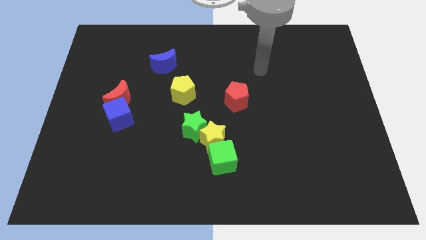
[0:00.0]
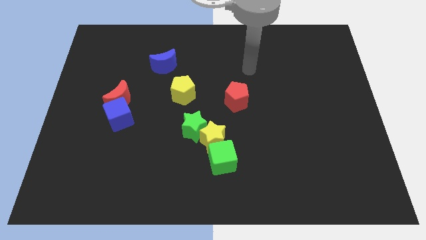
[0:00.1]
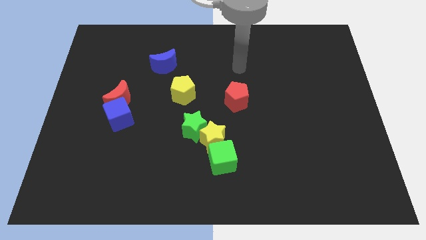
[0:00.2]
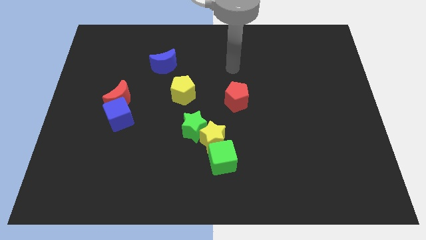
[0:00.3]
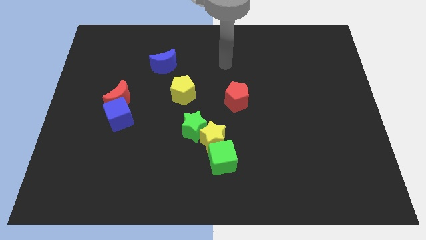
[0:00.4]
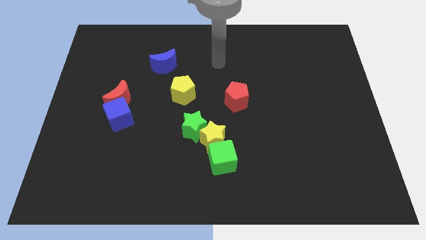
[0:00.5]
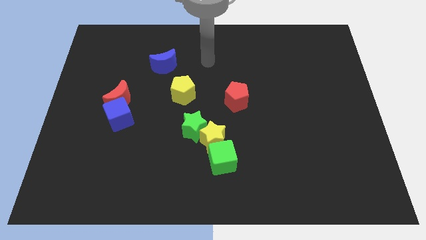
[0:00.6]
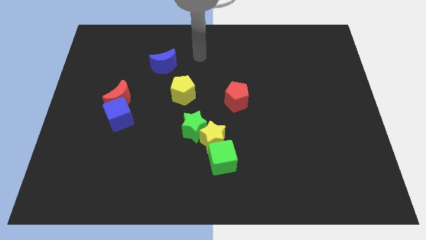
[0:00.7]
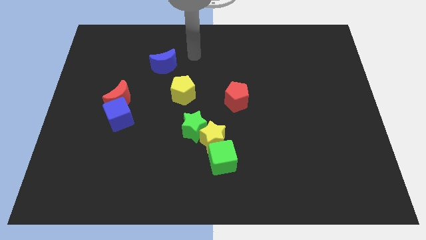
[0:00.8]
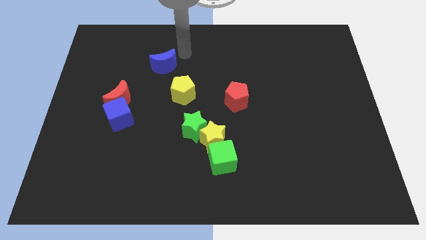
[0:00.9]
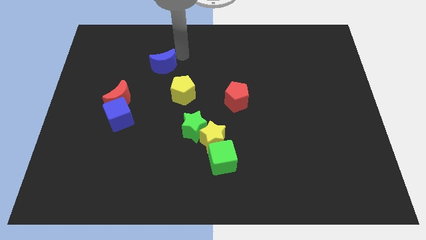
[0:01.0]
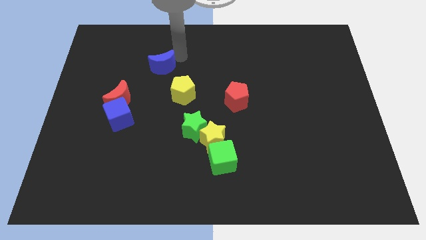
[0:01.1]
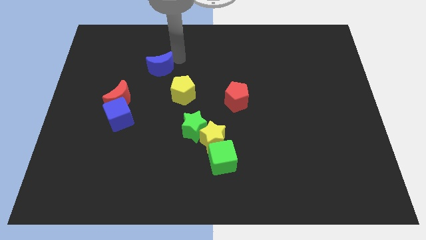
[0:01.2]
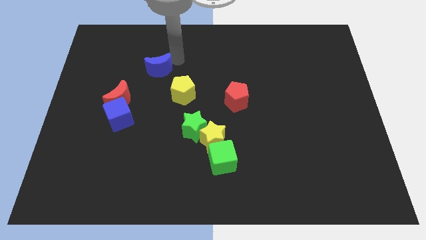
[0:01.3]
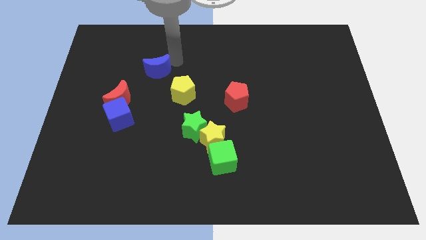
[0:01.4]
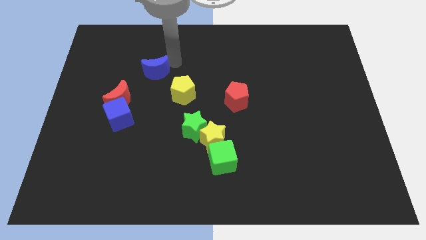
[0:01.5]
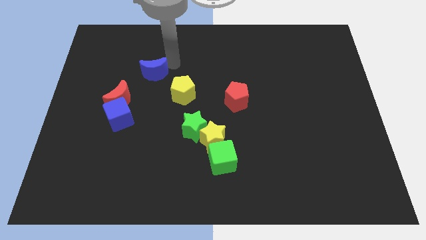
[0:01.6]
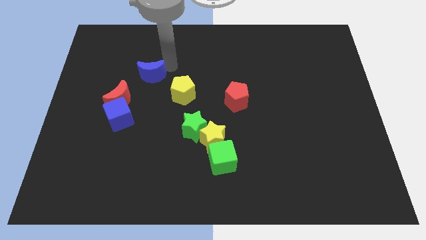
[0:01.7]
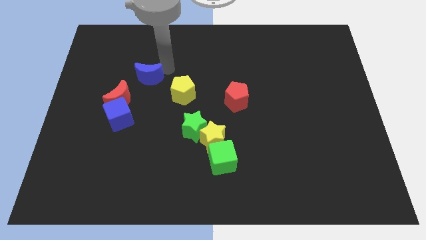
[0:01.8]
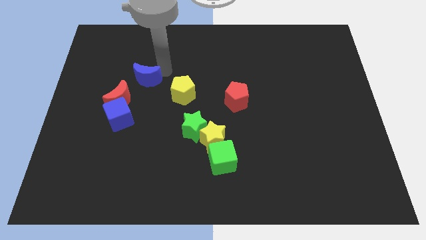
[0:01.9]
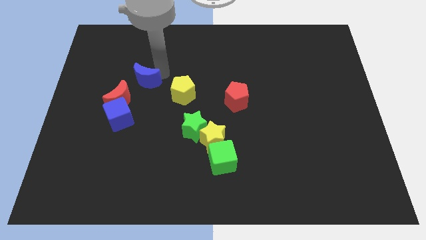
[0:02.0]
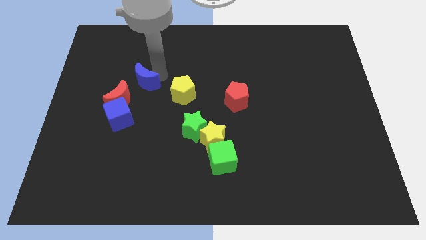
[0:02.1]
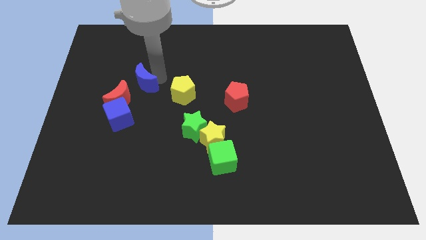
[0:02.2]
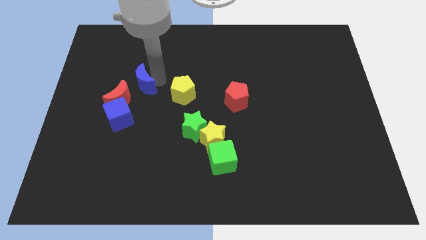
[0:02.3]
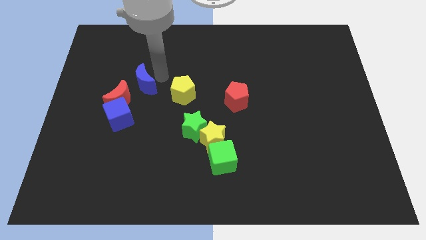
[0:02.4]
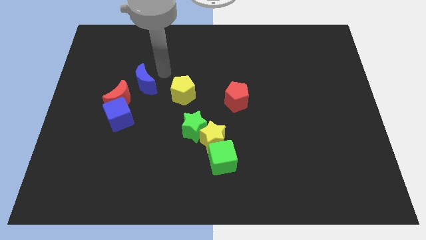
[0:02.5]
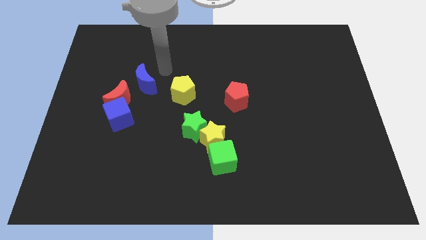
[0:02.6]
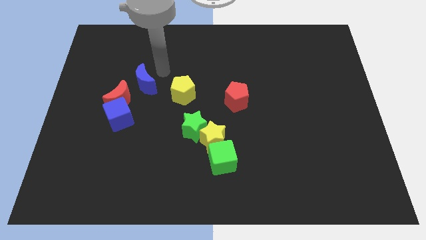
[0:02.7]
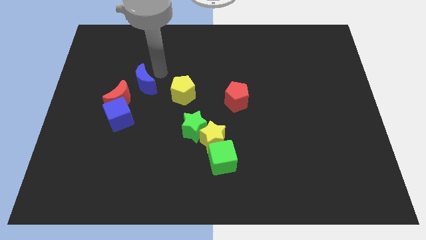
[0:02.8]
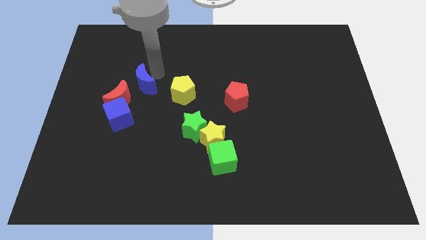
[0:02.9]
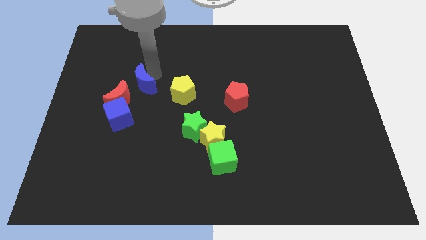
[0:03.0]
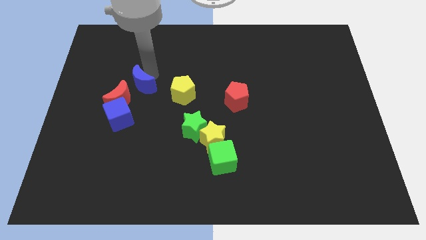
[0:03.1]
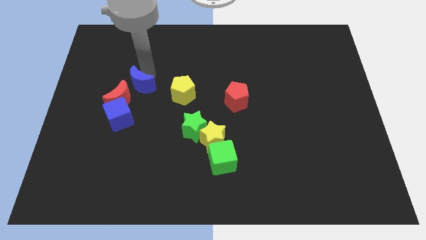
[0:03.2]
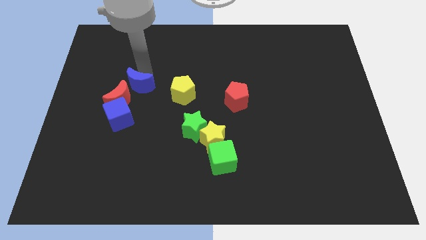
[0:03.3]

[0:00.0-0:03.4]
slide the blue moon to the red moon

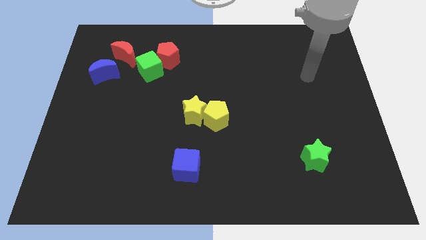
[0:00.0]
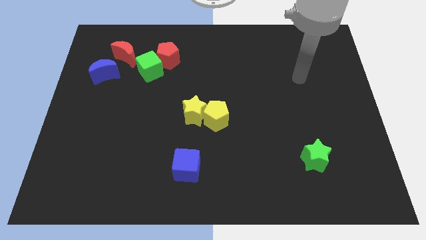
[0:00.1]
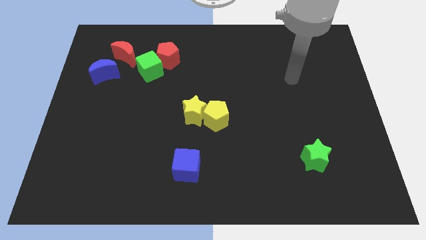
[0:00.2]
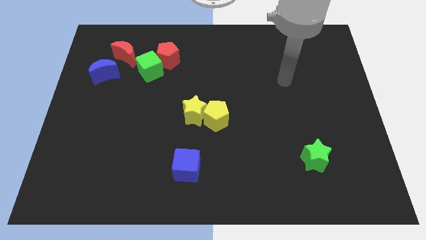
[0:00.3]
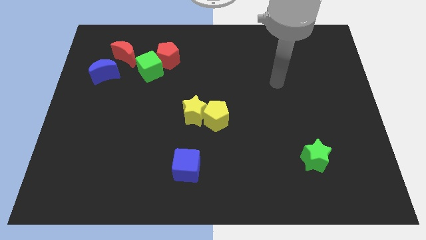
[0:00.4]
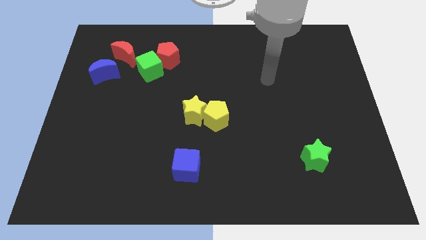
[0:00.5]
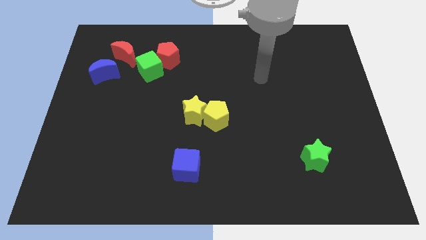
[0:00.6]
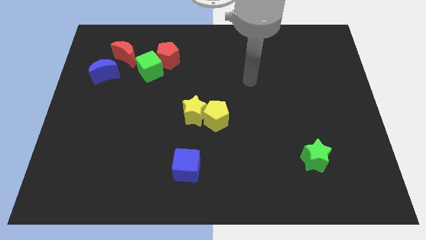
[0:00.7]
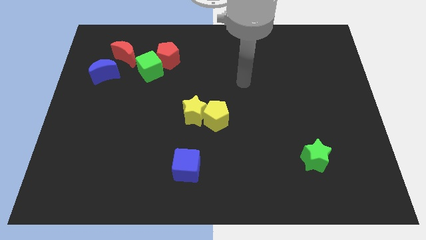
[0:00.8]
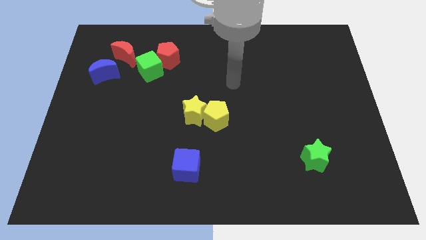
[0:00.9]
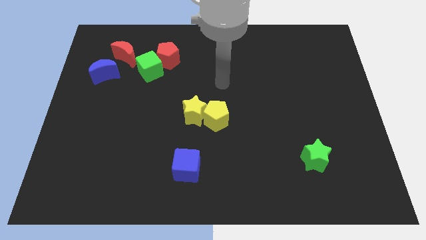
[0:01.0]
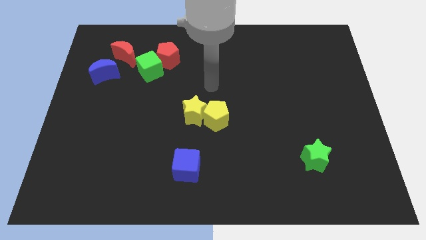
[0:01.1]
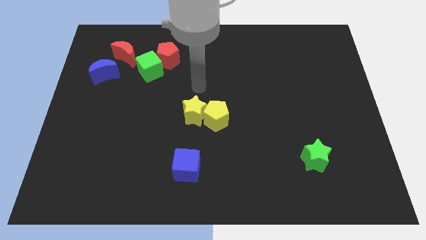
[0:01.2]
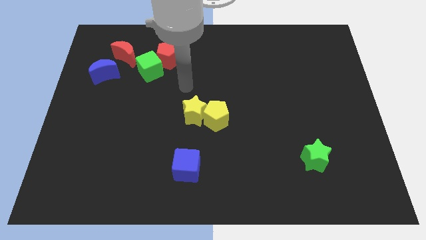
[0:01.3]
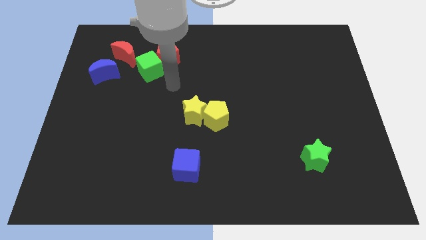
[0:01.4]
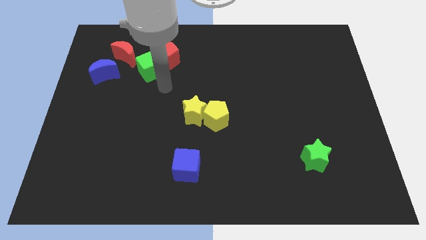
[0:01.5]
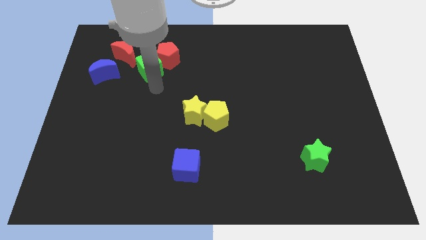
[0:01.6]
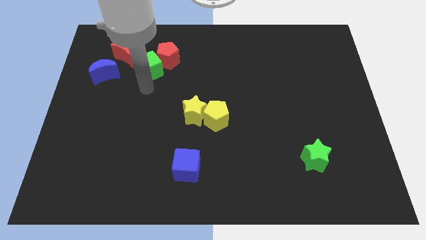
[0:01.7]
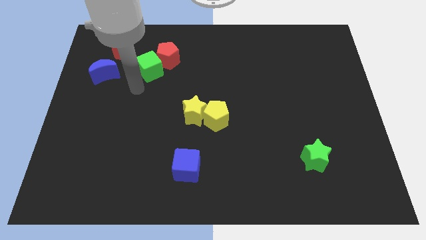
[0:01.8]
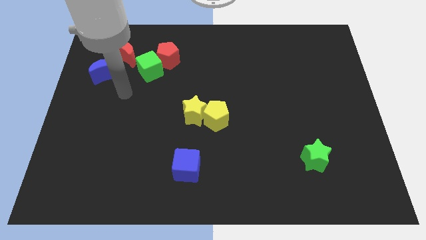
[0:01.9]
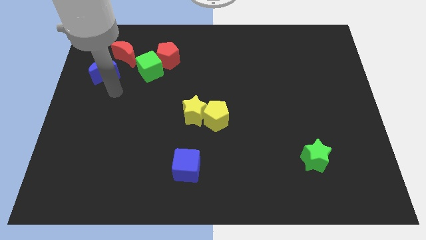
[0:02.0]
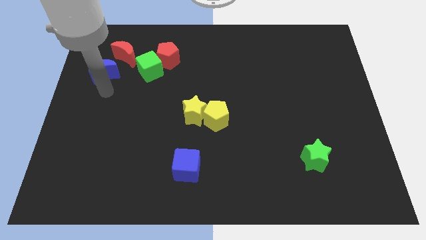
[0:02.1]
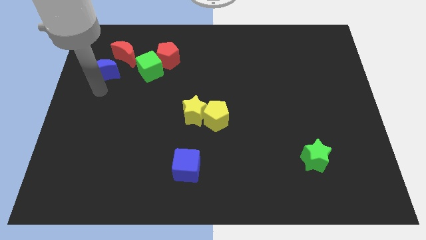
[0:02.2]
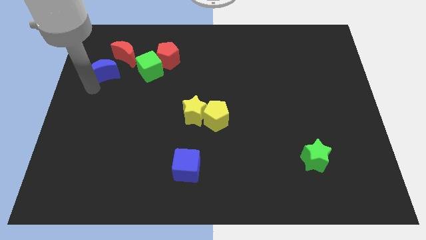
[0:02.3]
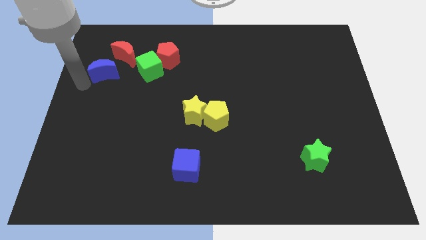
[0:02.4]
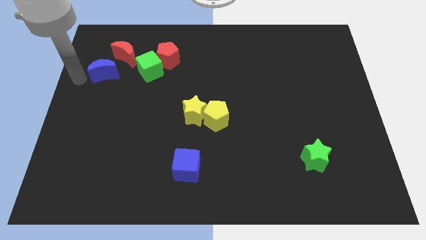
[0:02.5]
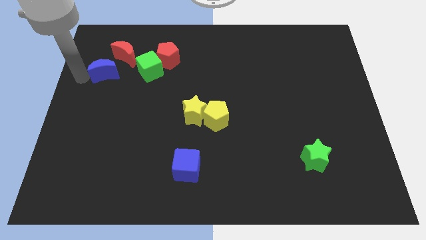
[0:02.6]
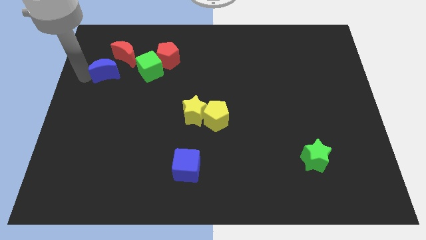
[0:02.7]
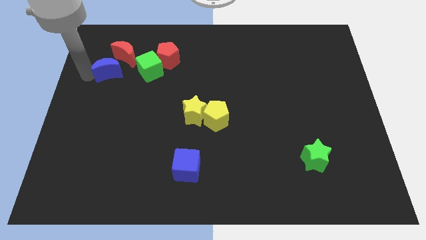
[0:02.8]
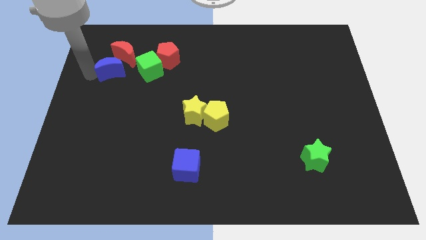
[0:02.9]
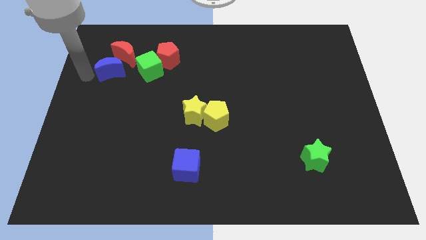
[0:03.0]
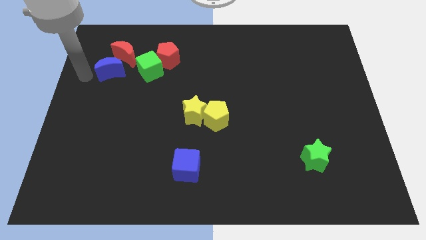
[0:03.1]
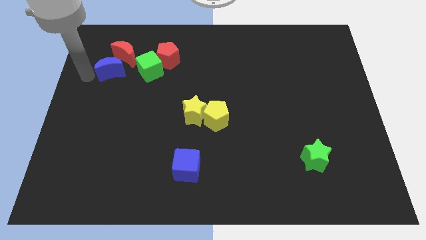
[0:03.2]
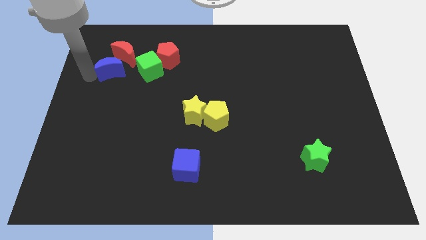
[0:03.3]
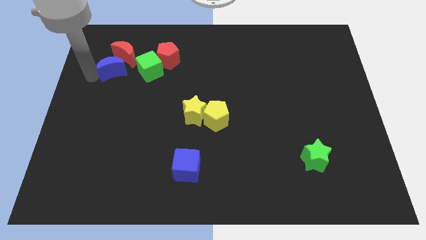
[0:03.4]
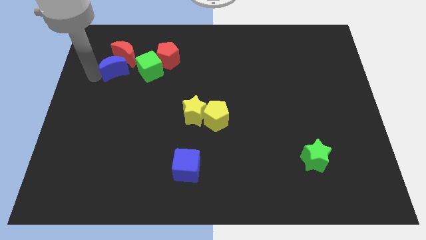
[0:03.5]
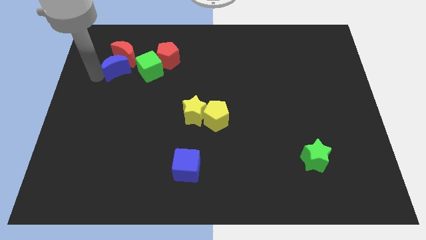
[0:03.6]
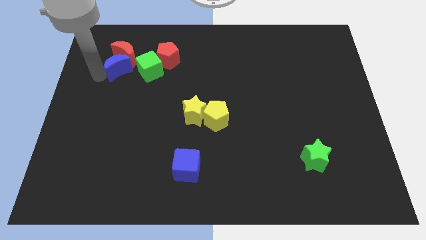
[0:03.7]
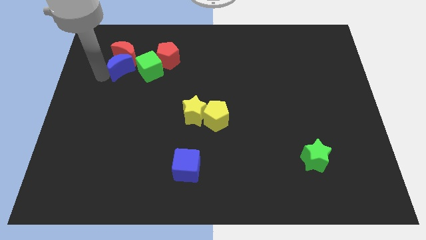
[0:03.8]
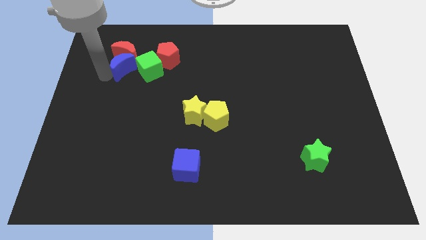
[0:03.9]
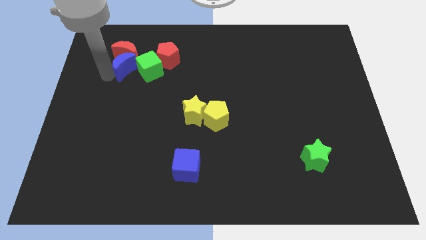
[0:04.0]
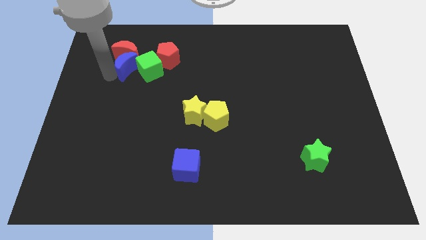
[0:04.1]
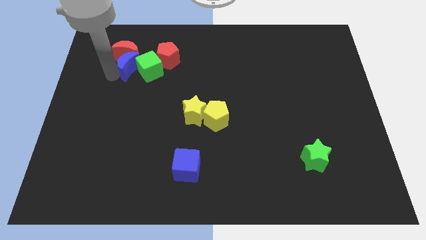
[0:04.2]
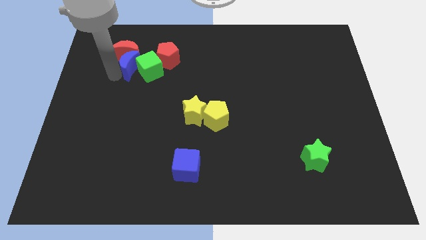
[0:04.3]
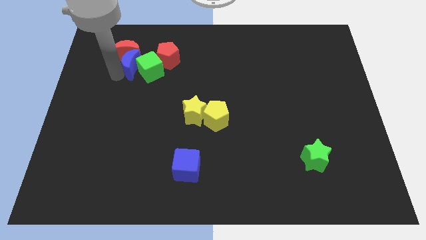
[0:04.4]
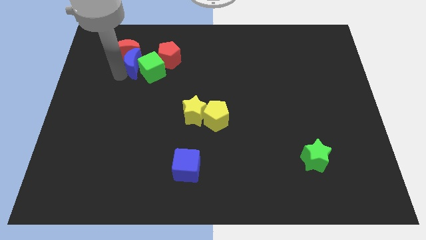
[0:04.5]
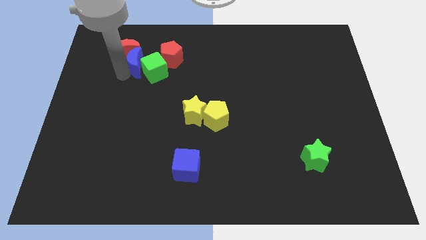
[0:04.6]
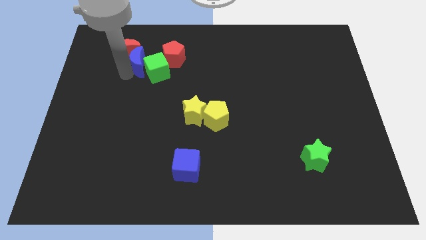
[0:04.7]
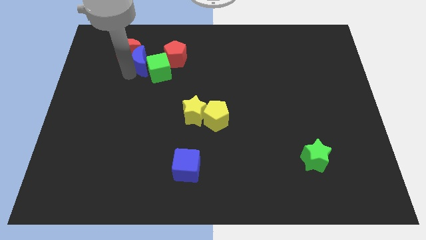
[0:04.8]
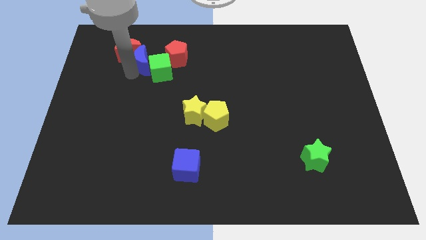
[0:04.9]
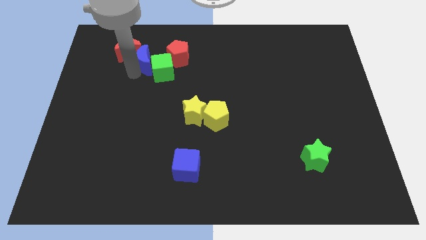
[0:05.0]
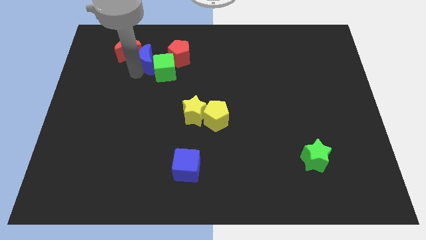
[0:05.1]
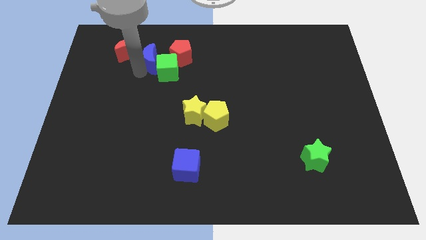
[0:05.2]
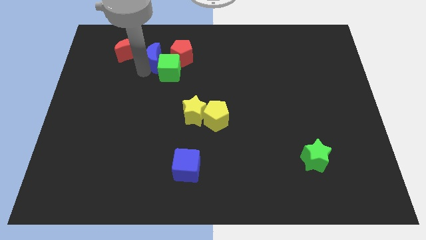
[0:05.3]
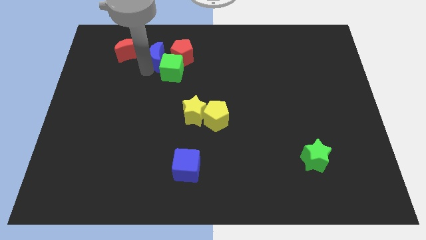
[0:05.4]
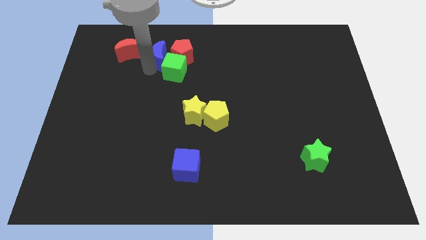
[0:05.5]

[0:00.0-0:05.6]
push the blue moon next to the red pentagon
